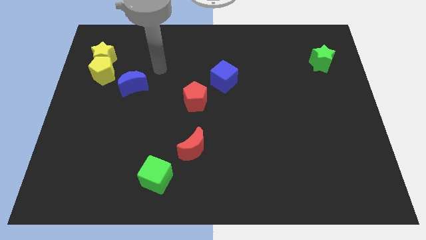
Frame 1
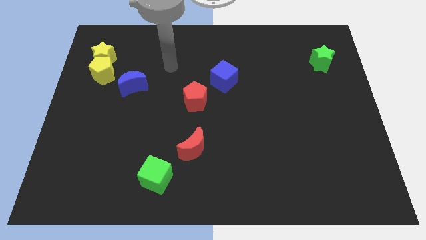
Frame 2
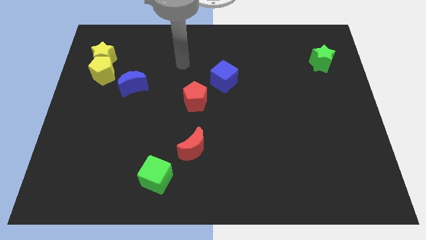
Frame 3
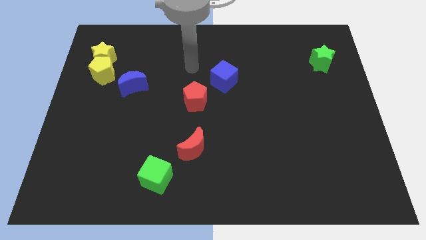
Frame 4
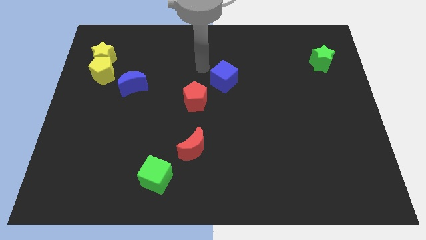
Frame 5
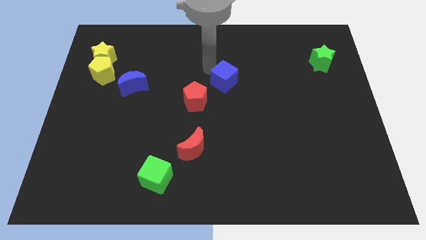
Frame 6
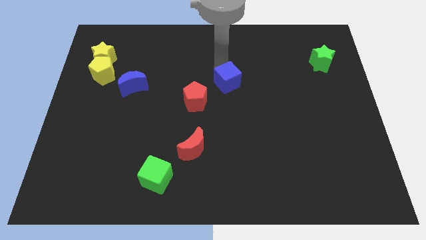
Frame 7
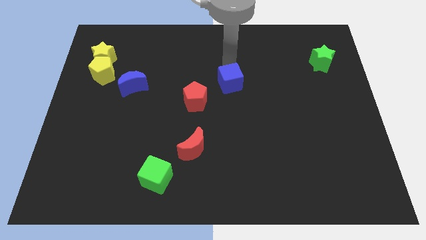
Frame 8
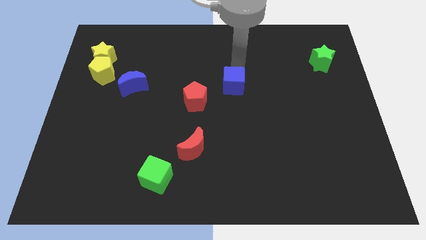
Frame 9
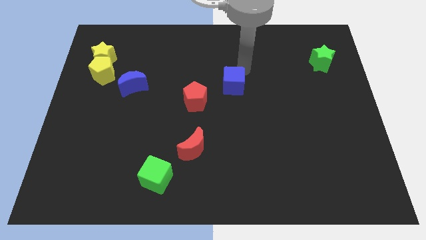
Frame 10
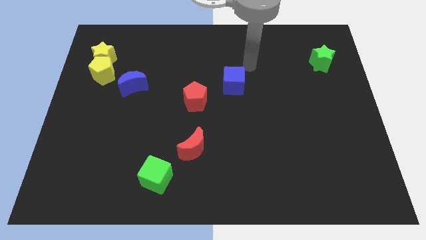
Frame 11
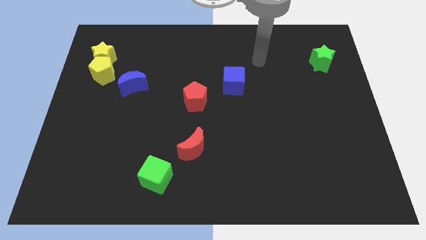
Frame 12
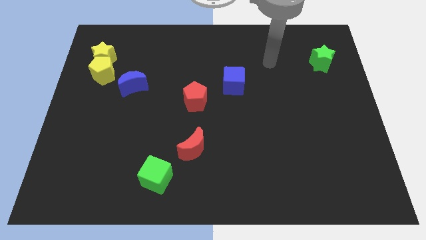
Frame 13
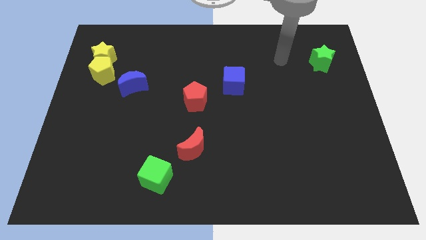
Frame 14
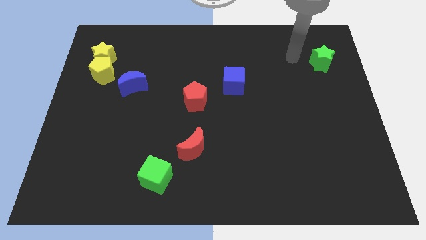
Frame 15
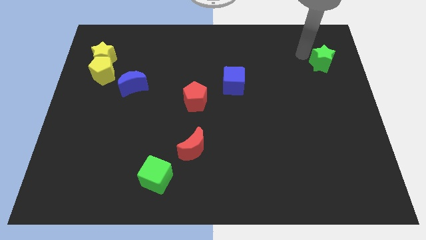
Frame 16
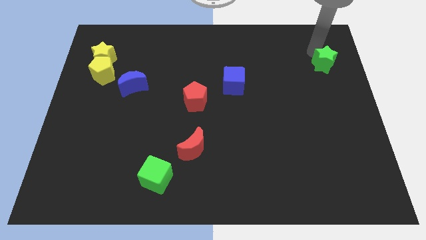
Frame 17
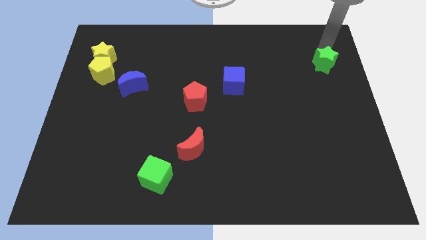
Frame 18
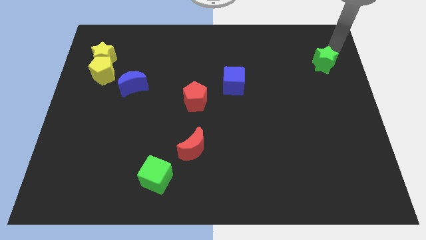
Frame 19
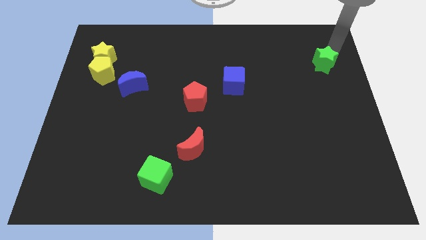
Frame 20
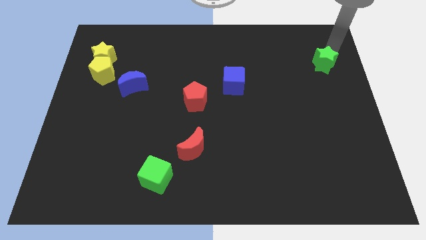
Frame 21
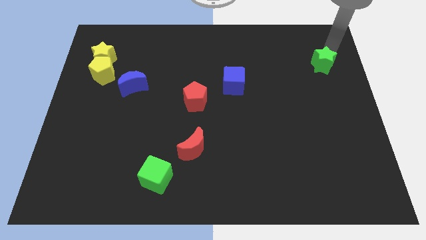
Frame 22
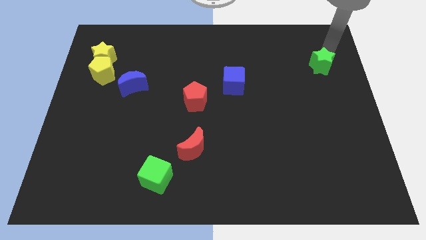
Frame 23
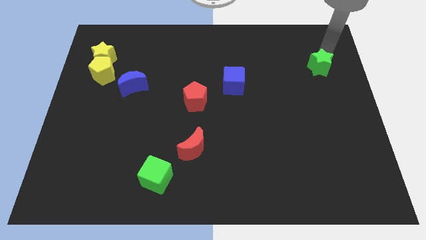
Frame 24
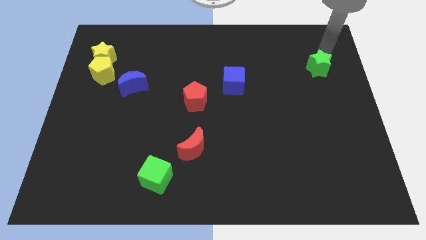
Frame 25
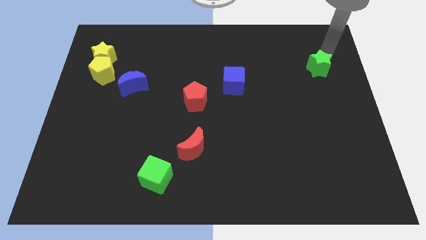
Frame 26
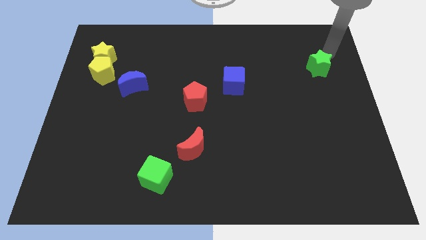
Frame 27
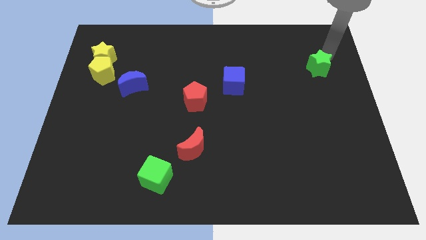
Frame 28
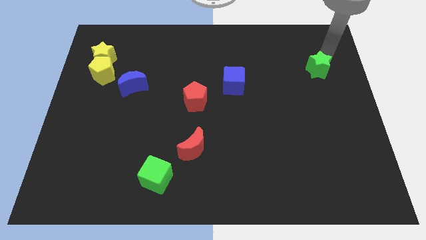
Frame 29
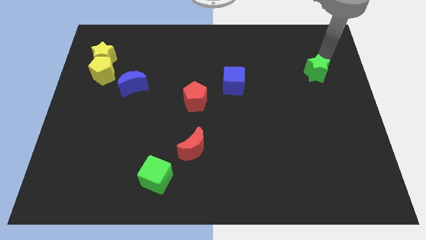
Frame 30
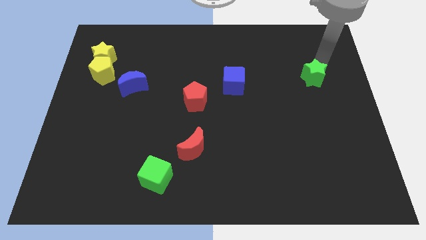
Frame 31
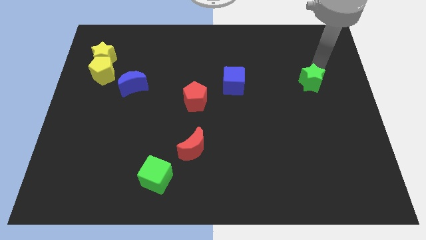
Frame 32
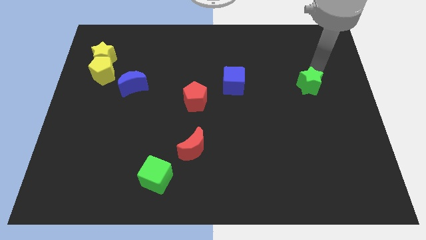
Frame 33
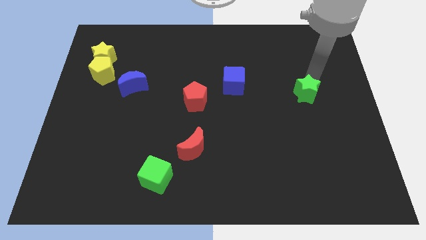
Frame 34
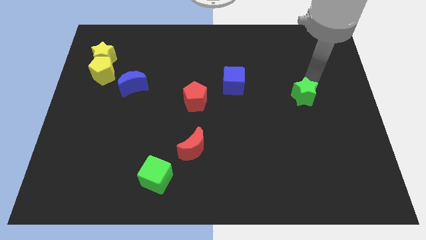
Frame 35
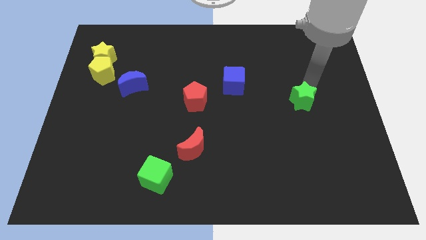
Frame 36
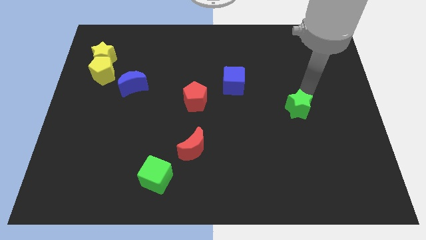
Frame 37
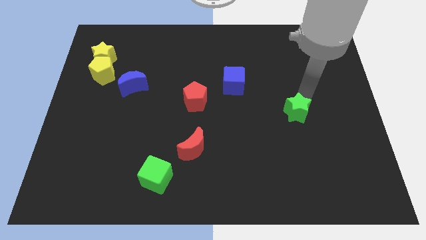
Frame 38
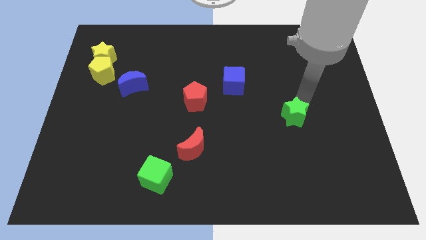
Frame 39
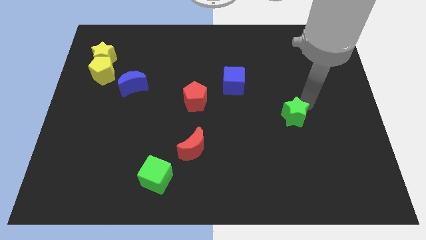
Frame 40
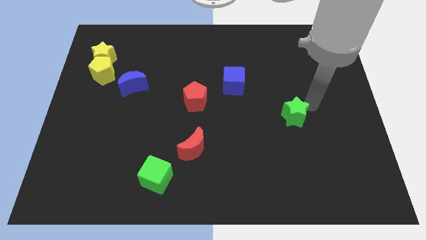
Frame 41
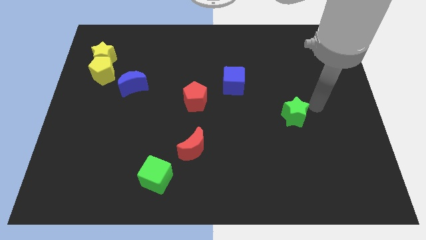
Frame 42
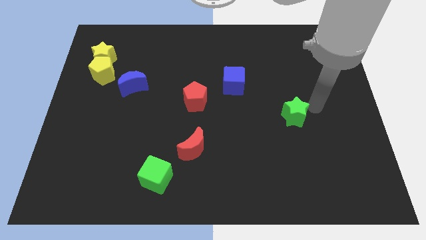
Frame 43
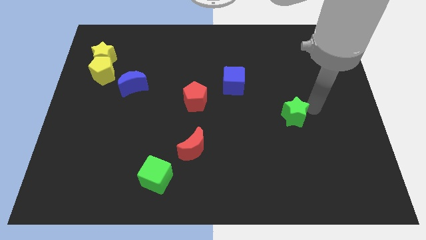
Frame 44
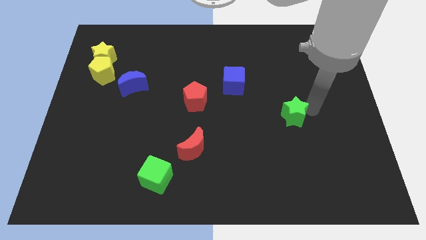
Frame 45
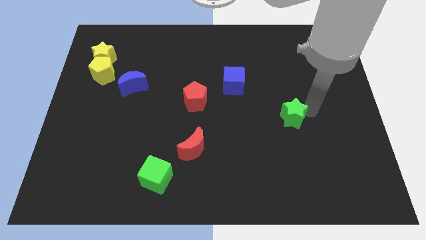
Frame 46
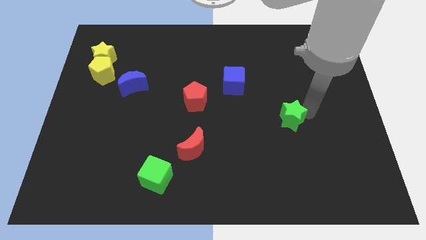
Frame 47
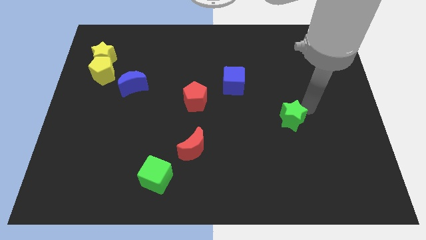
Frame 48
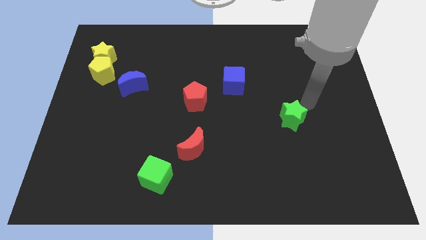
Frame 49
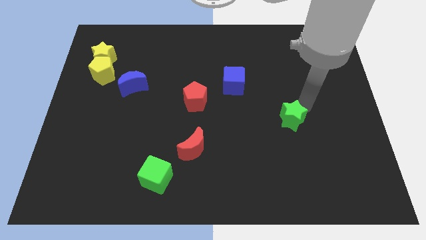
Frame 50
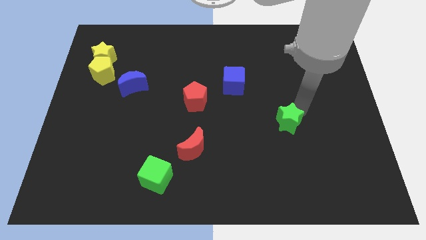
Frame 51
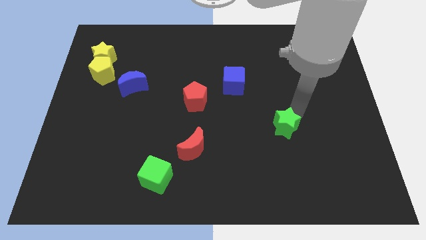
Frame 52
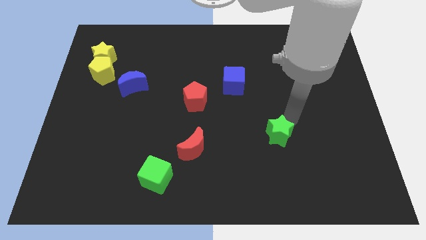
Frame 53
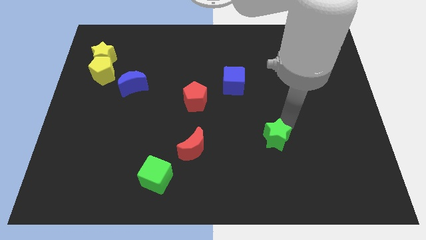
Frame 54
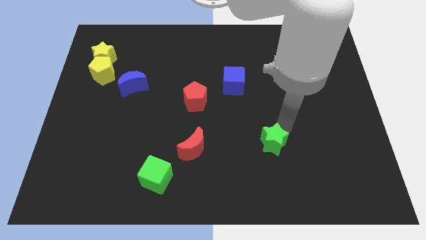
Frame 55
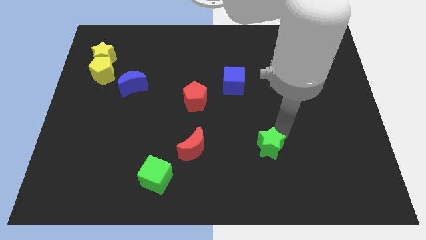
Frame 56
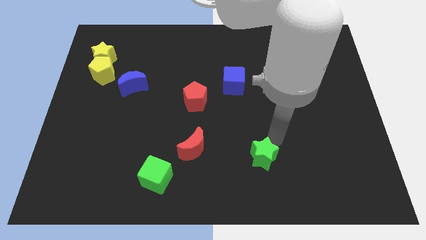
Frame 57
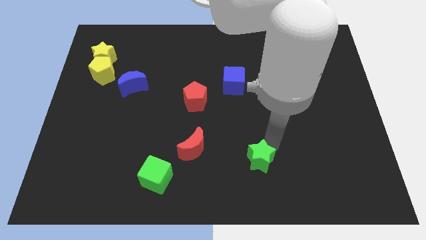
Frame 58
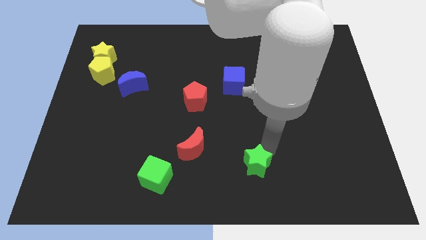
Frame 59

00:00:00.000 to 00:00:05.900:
push the green star to the bottom side
